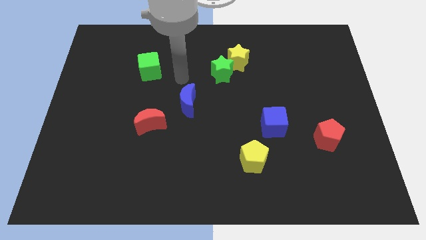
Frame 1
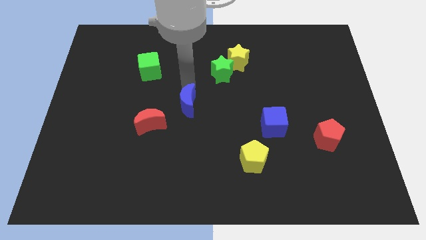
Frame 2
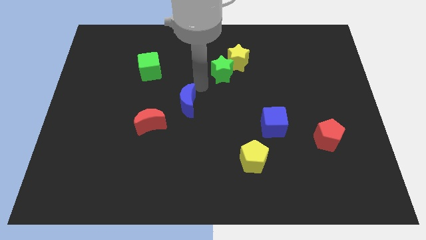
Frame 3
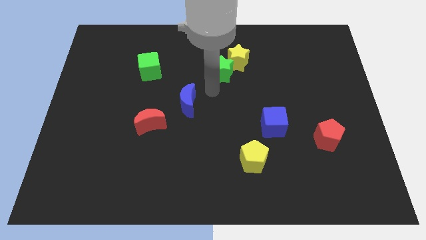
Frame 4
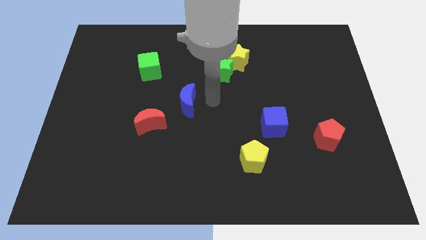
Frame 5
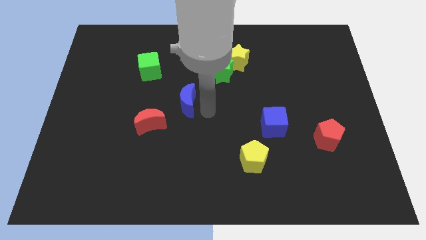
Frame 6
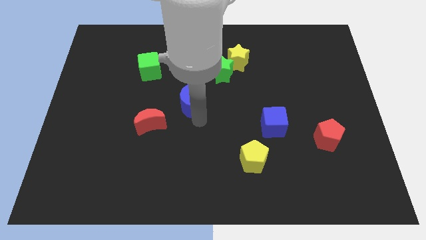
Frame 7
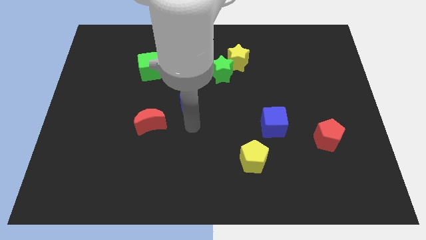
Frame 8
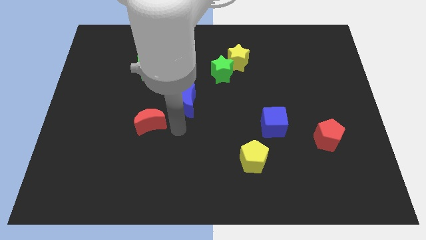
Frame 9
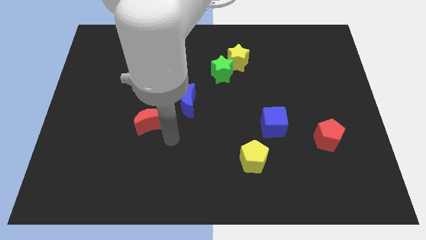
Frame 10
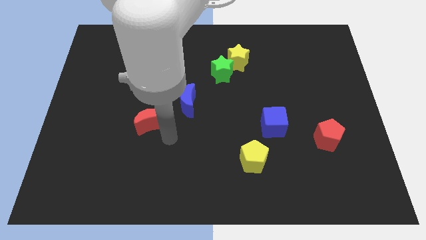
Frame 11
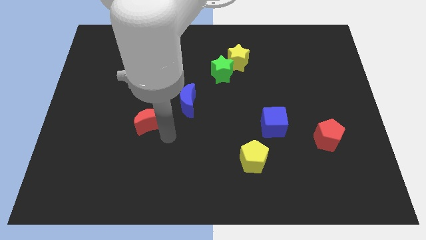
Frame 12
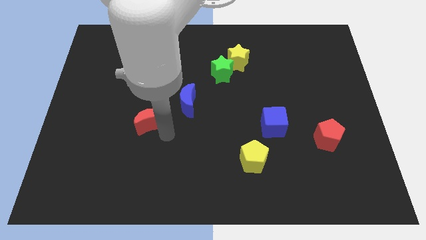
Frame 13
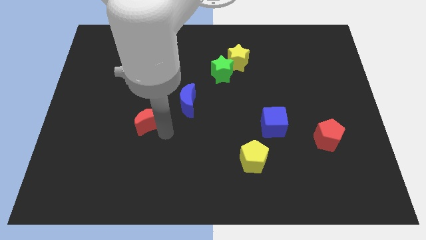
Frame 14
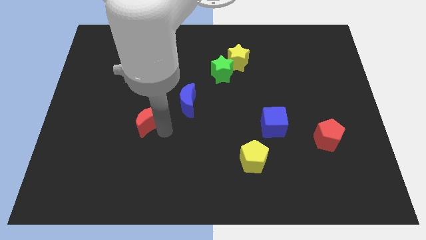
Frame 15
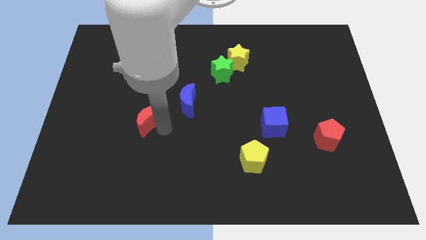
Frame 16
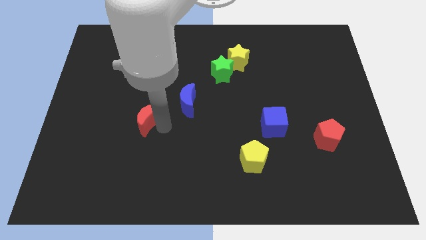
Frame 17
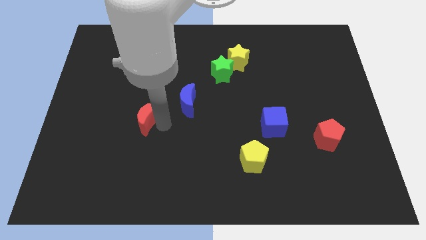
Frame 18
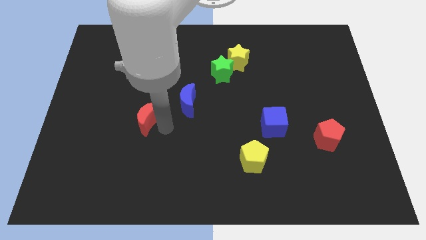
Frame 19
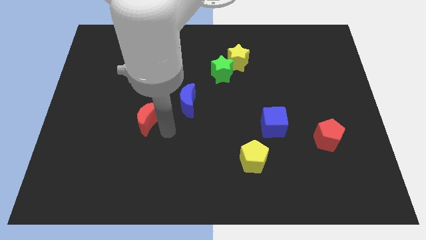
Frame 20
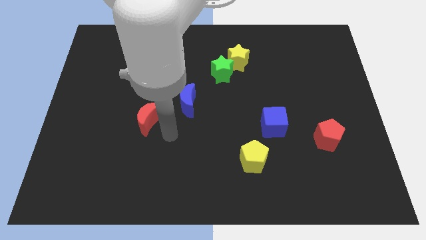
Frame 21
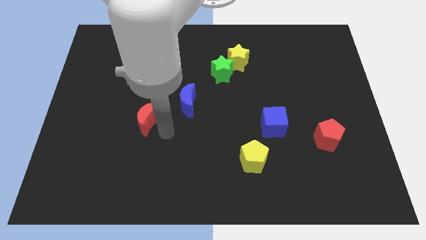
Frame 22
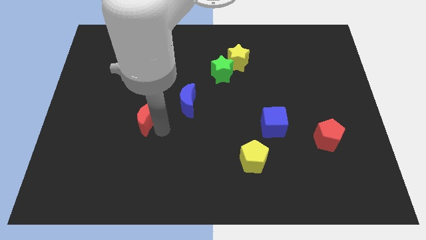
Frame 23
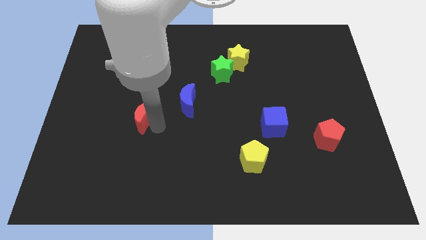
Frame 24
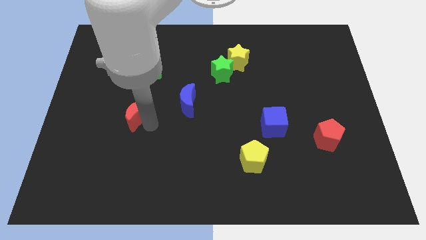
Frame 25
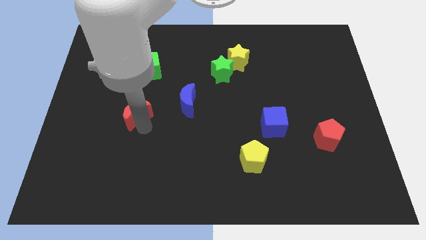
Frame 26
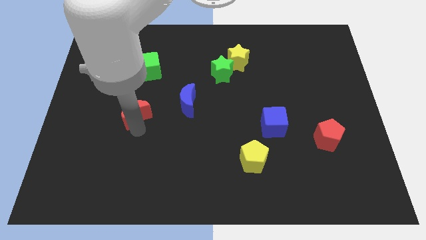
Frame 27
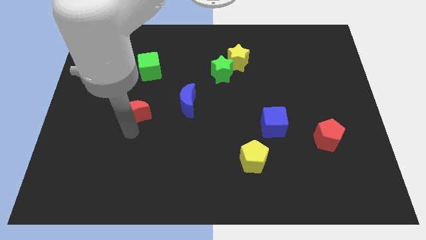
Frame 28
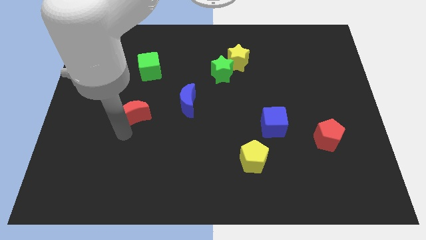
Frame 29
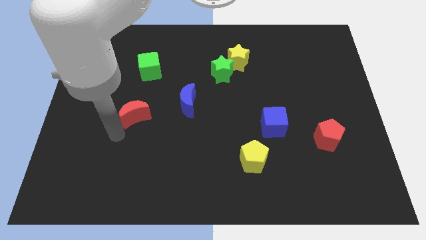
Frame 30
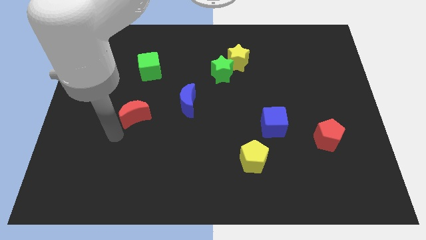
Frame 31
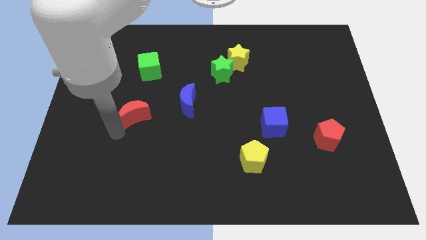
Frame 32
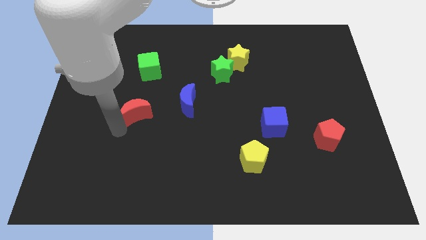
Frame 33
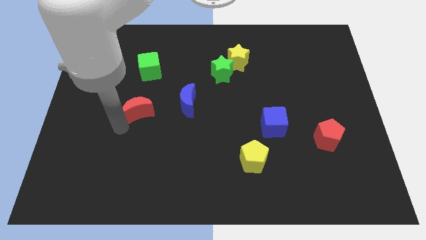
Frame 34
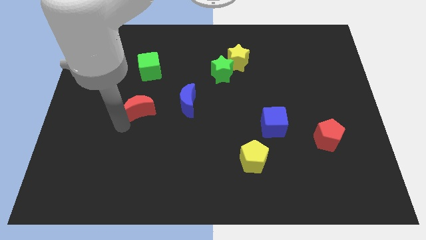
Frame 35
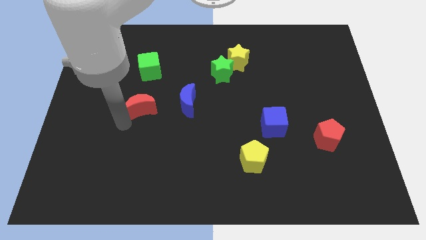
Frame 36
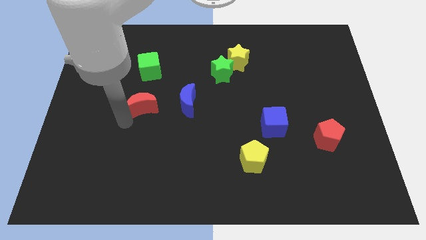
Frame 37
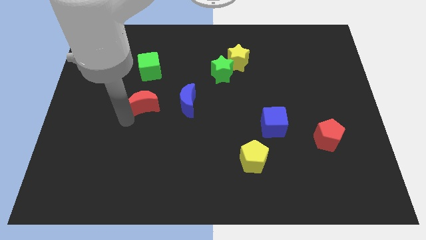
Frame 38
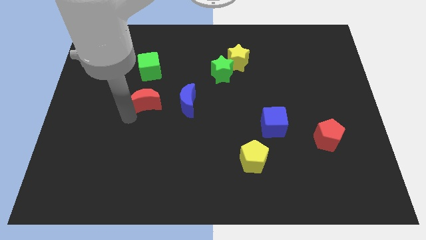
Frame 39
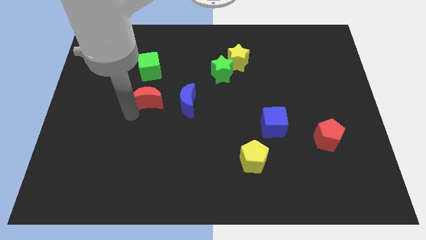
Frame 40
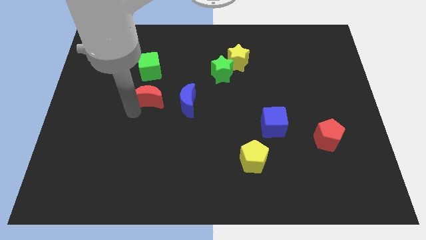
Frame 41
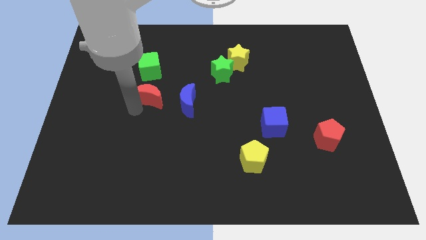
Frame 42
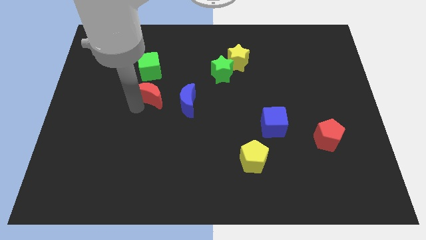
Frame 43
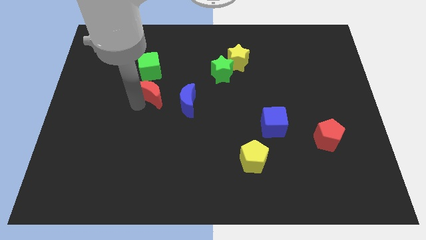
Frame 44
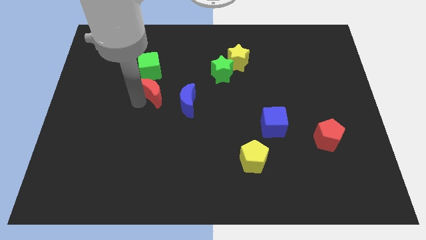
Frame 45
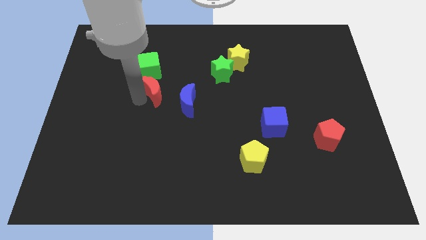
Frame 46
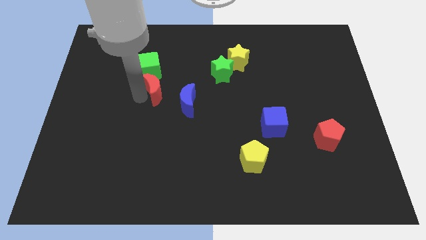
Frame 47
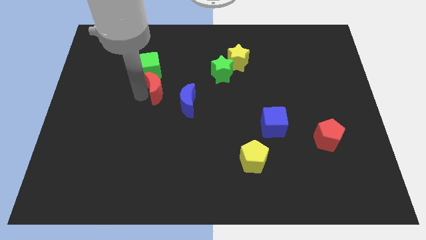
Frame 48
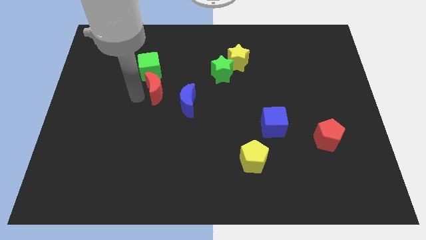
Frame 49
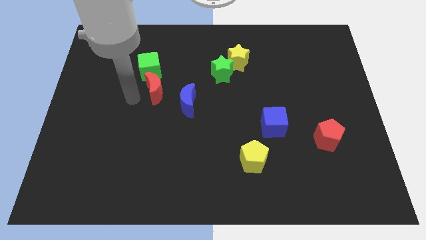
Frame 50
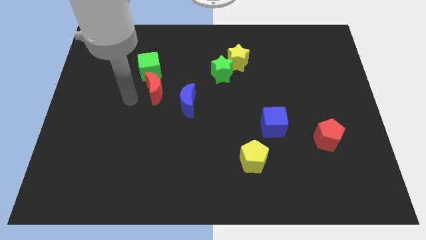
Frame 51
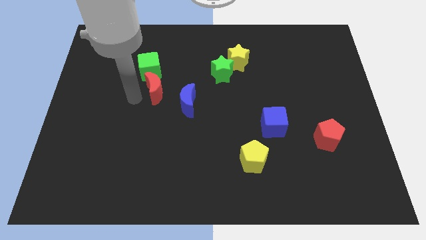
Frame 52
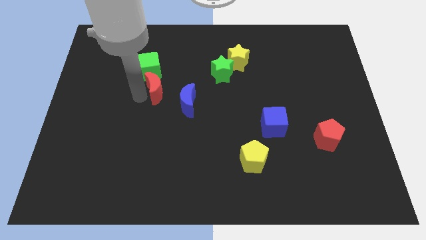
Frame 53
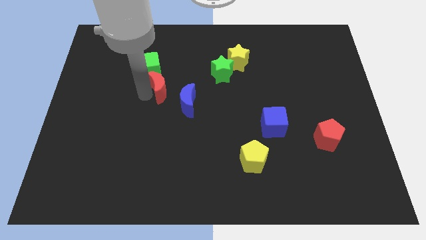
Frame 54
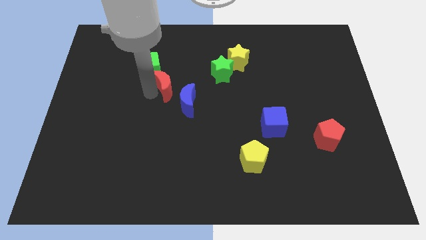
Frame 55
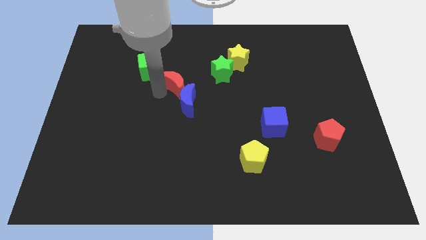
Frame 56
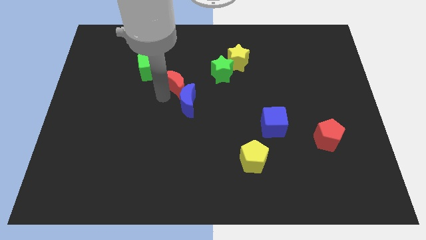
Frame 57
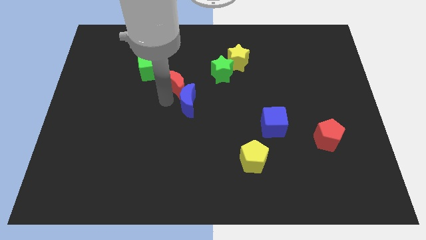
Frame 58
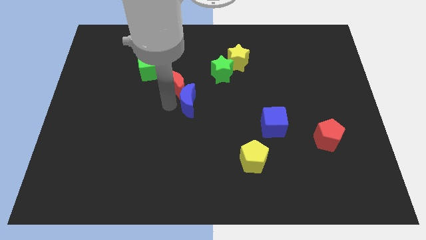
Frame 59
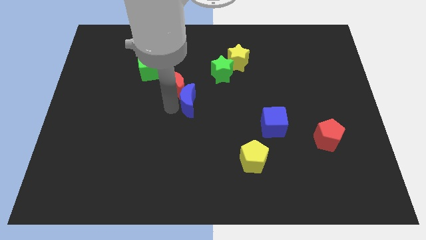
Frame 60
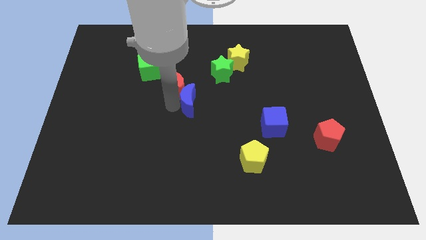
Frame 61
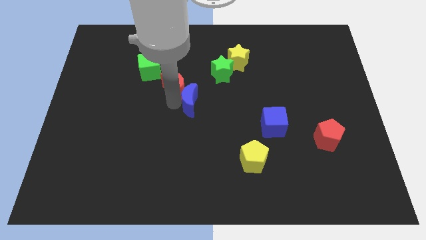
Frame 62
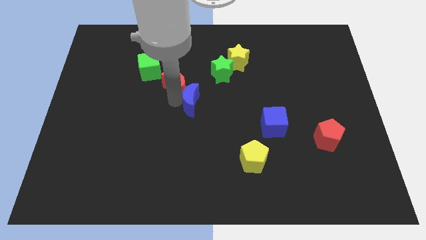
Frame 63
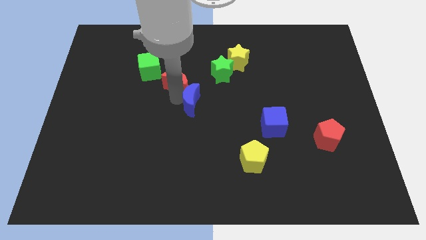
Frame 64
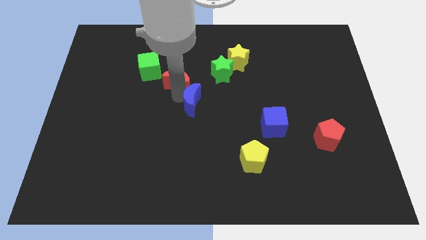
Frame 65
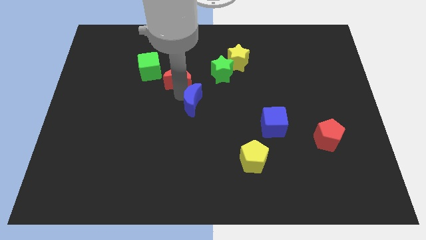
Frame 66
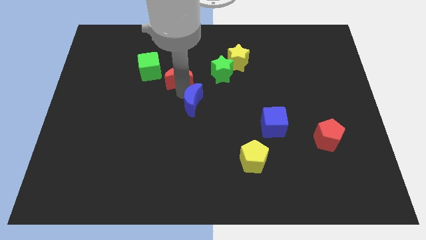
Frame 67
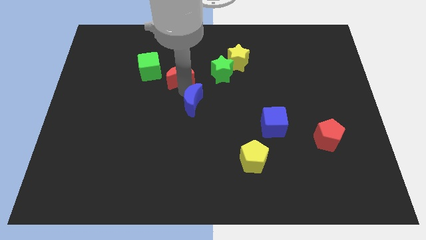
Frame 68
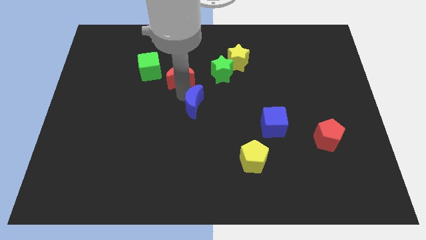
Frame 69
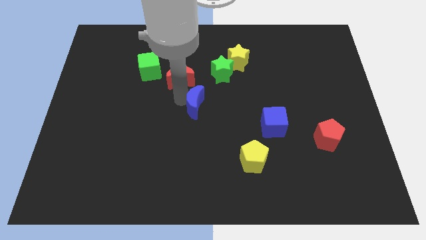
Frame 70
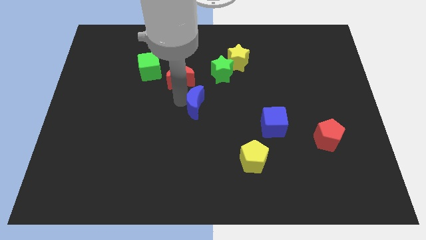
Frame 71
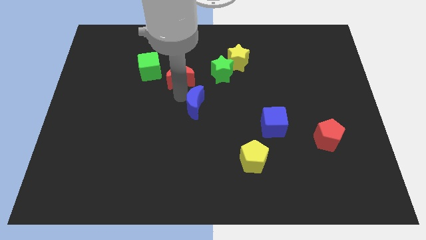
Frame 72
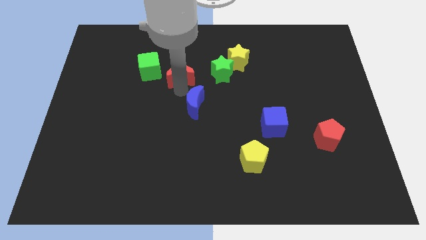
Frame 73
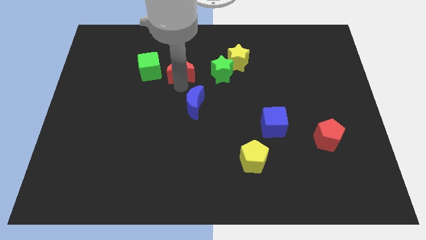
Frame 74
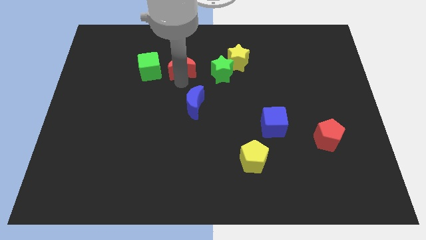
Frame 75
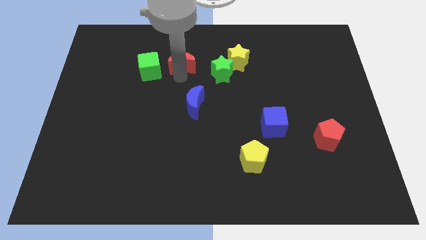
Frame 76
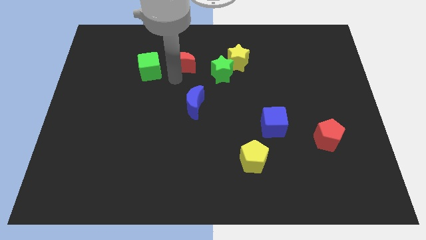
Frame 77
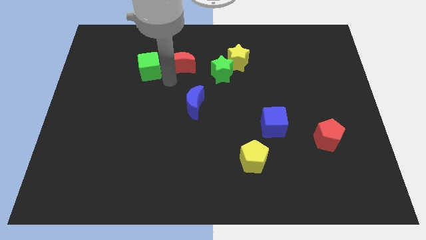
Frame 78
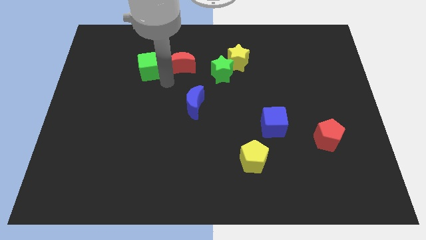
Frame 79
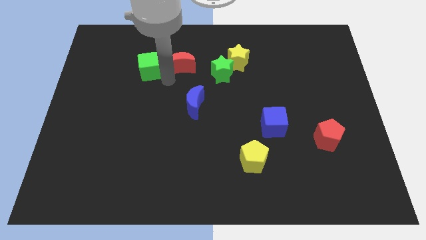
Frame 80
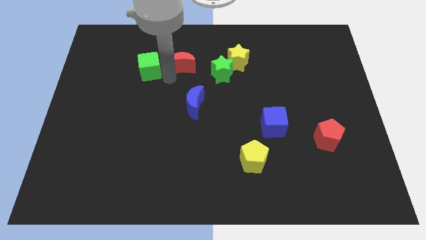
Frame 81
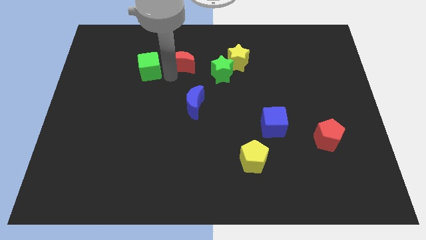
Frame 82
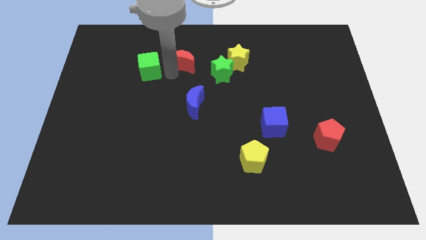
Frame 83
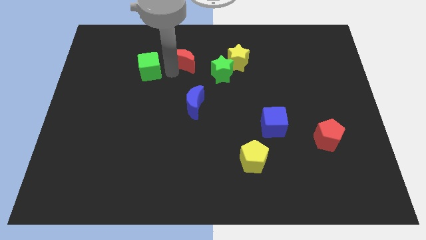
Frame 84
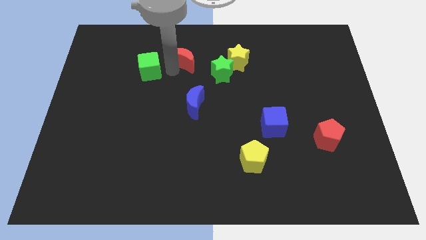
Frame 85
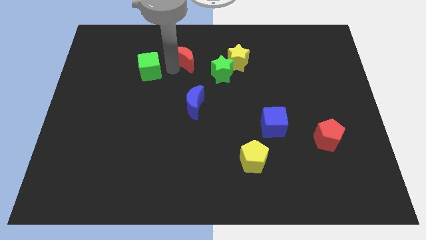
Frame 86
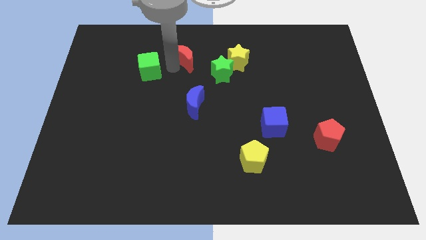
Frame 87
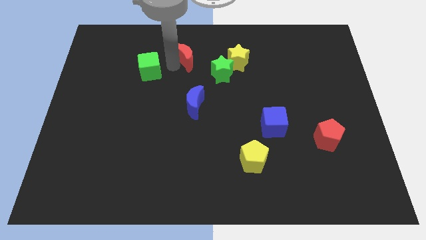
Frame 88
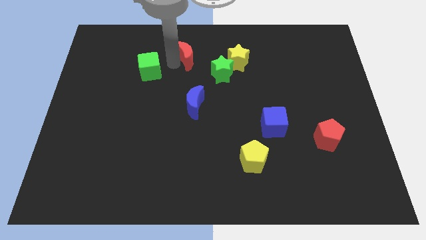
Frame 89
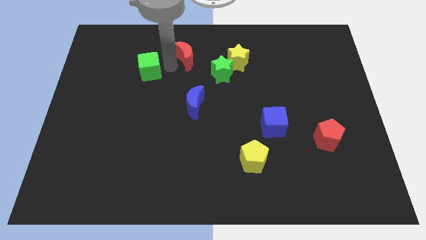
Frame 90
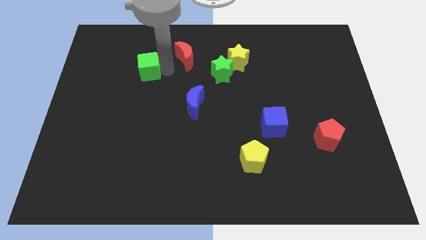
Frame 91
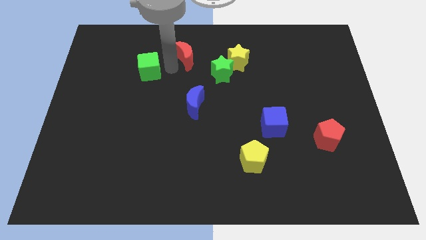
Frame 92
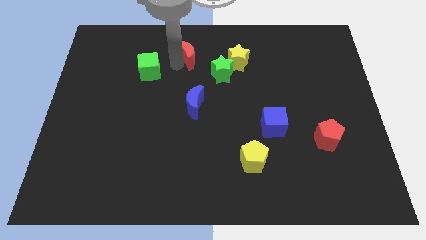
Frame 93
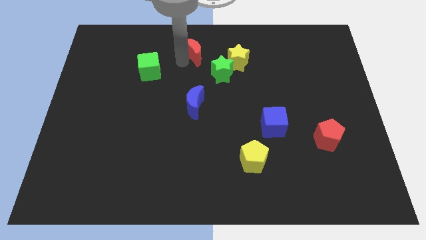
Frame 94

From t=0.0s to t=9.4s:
push the red moon to the top
